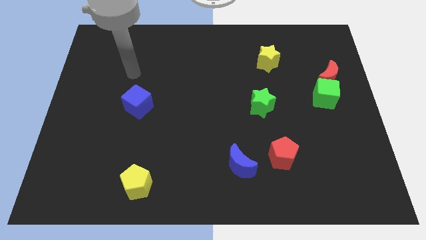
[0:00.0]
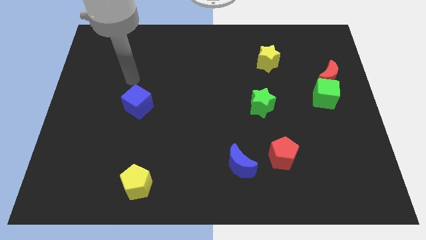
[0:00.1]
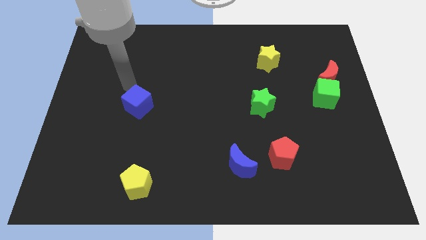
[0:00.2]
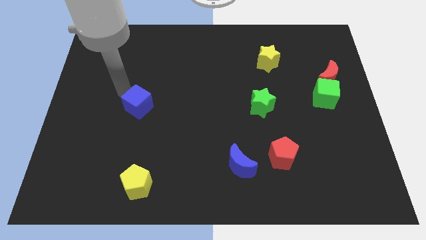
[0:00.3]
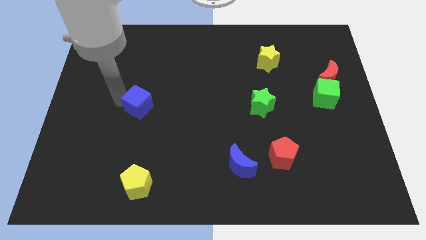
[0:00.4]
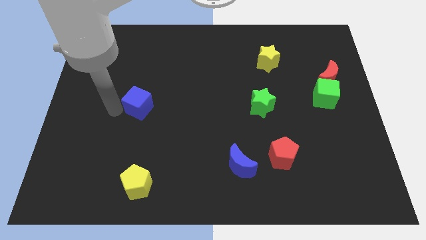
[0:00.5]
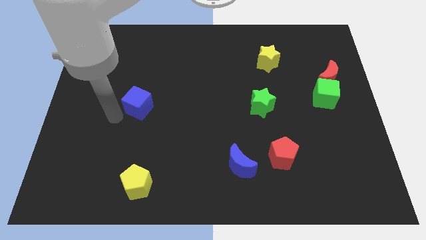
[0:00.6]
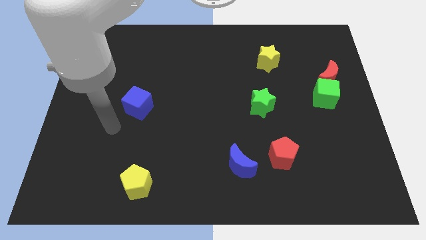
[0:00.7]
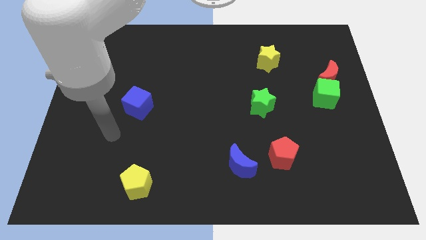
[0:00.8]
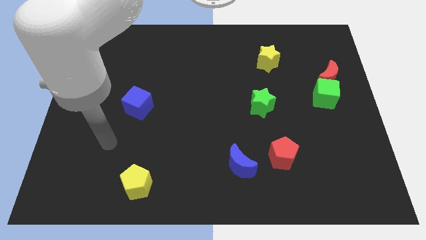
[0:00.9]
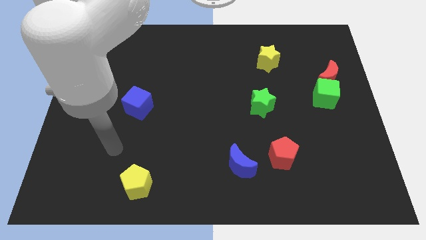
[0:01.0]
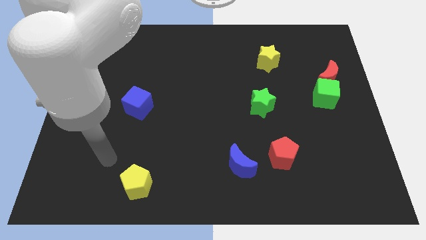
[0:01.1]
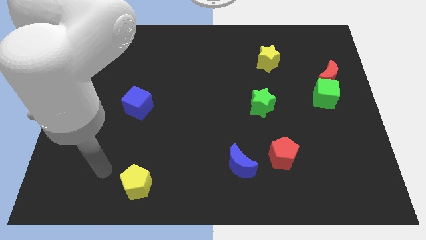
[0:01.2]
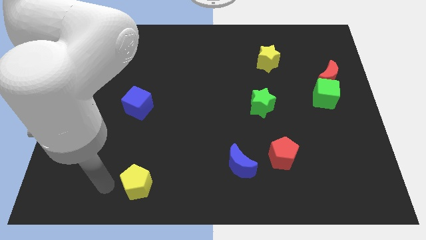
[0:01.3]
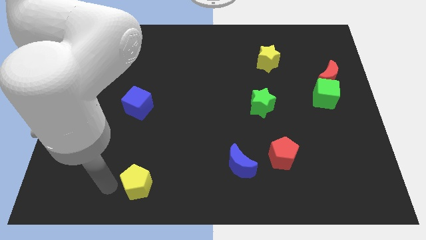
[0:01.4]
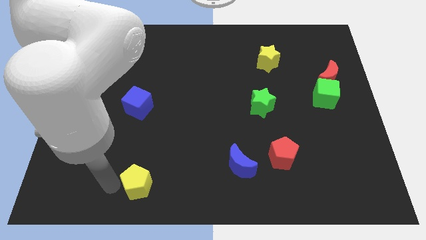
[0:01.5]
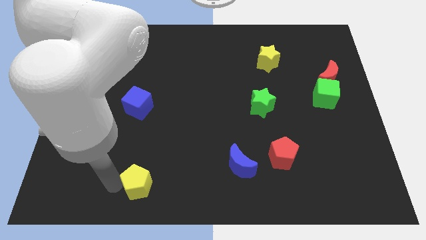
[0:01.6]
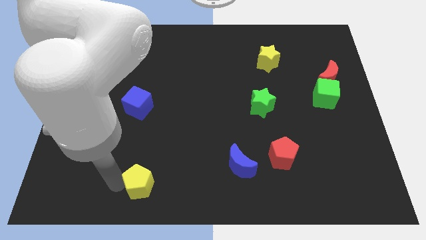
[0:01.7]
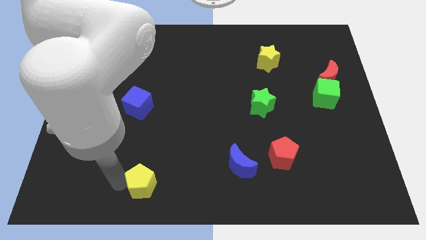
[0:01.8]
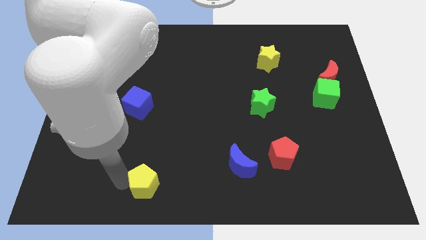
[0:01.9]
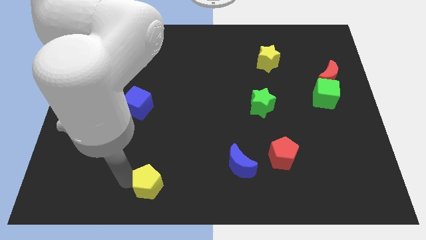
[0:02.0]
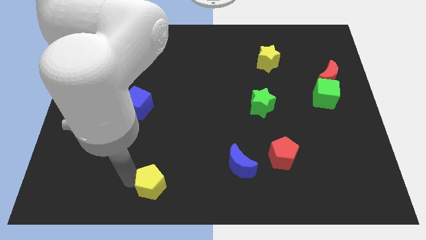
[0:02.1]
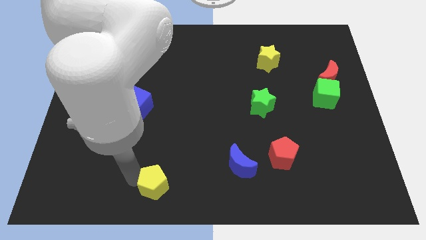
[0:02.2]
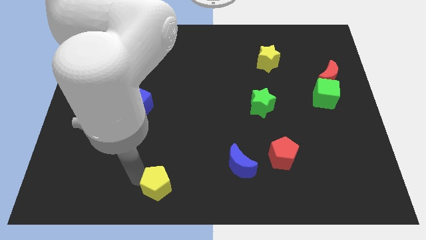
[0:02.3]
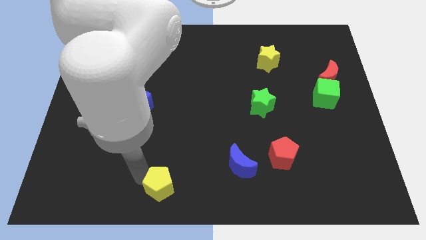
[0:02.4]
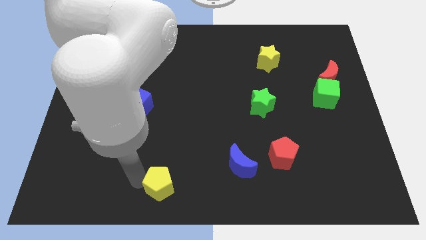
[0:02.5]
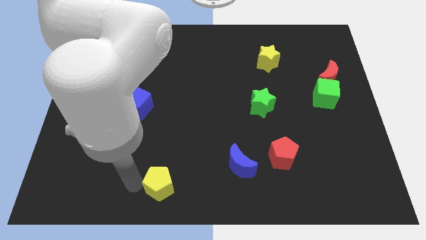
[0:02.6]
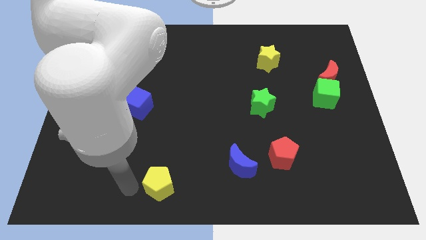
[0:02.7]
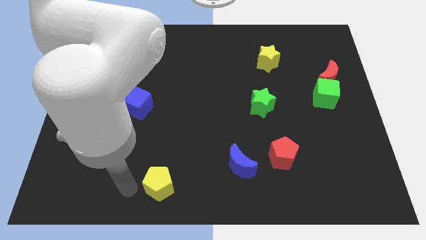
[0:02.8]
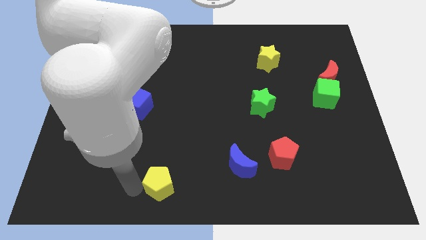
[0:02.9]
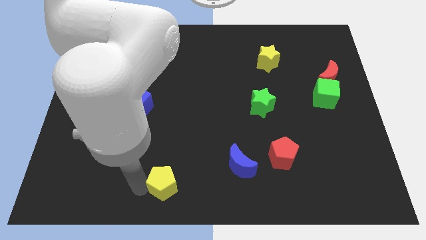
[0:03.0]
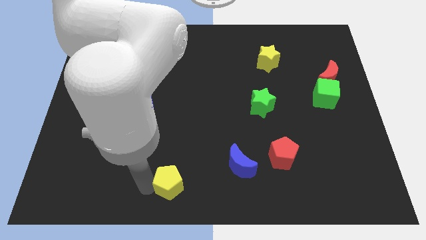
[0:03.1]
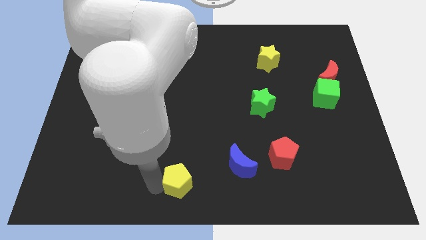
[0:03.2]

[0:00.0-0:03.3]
push the yellow pentagon right a little bit

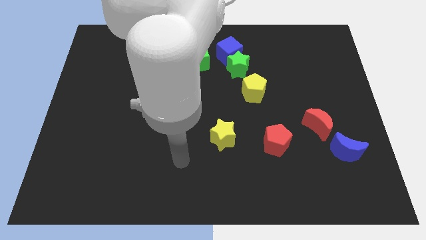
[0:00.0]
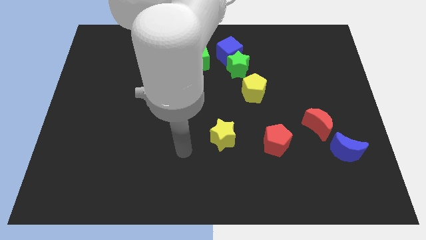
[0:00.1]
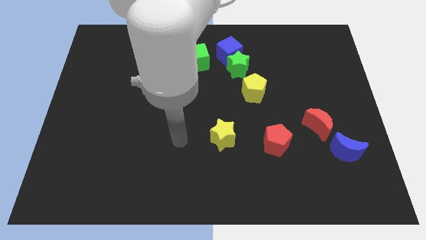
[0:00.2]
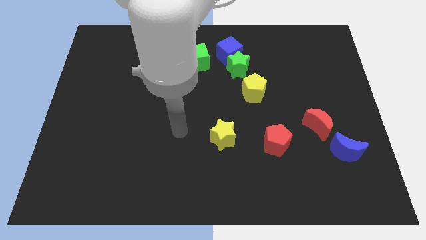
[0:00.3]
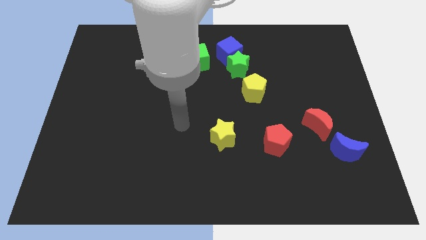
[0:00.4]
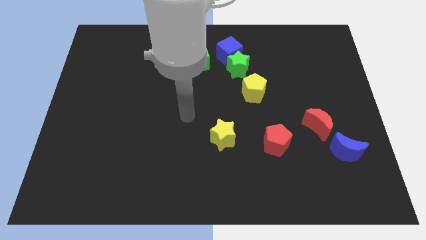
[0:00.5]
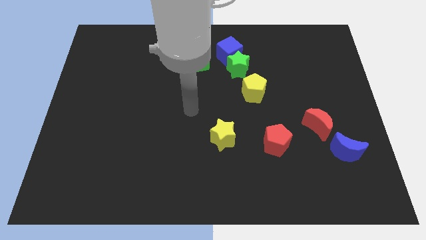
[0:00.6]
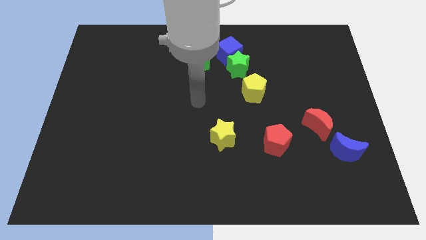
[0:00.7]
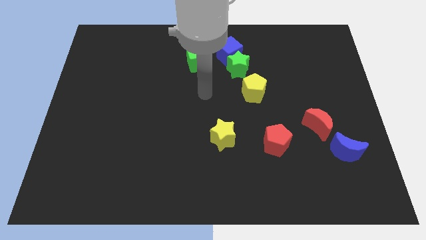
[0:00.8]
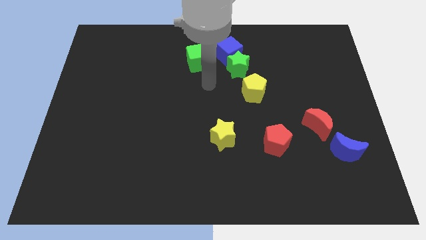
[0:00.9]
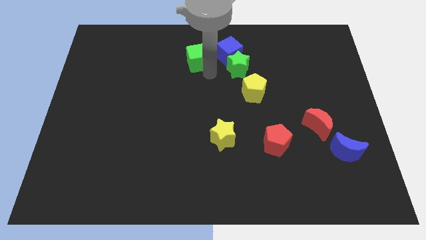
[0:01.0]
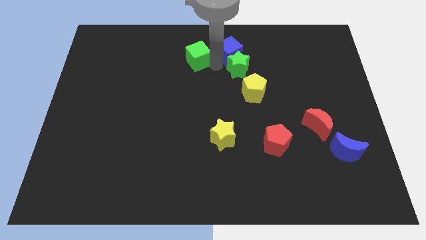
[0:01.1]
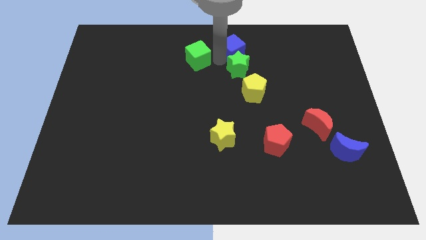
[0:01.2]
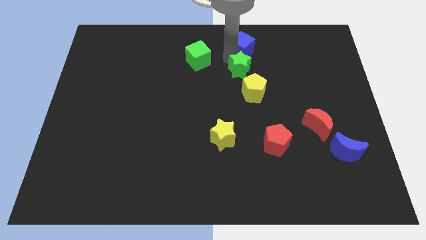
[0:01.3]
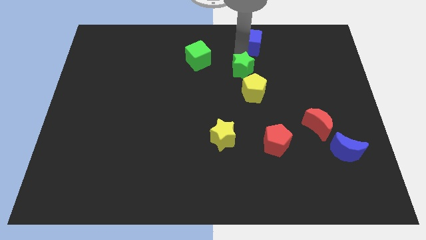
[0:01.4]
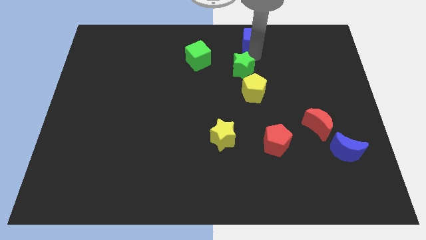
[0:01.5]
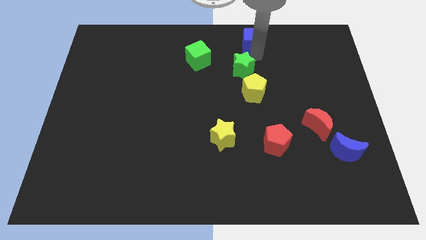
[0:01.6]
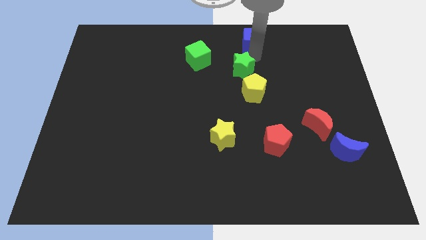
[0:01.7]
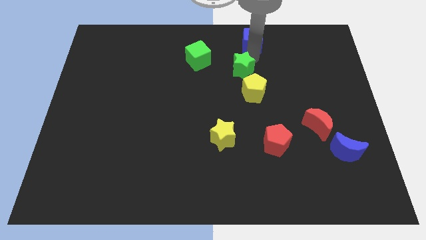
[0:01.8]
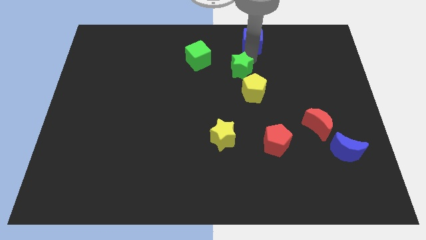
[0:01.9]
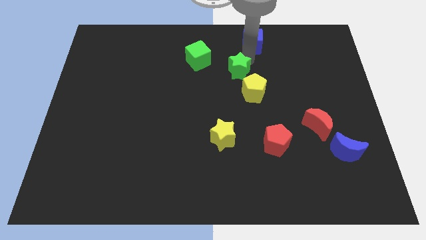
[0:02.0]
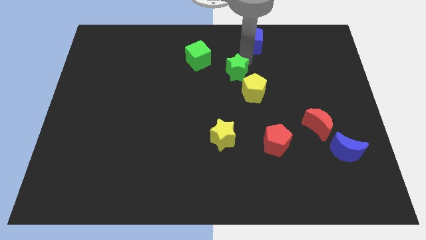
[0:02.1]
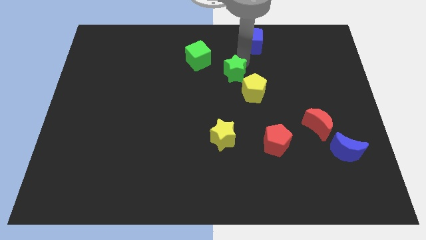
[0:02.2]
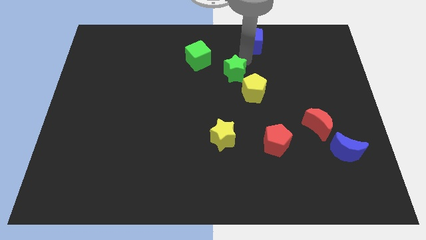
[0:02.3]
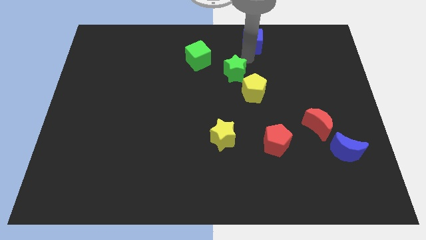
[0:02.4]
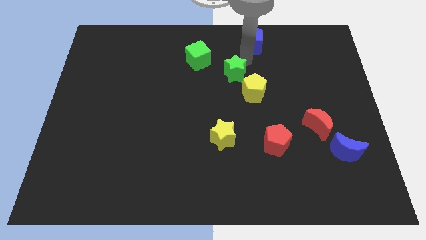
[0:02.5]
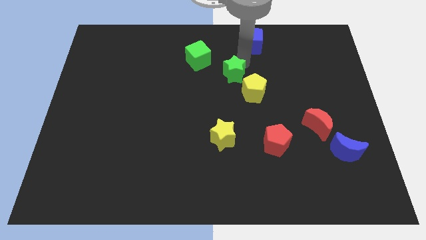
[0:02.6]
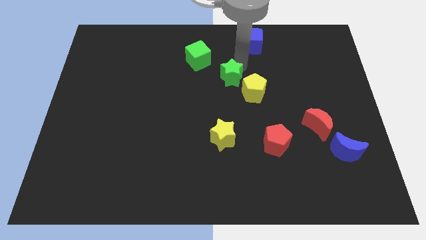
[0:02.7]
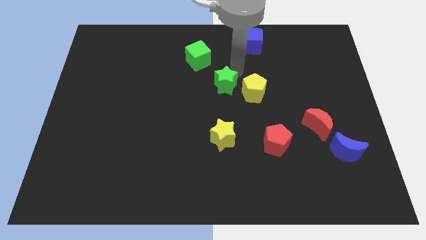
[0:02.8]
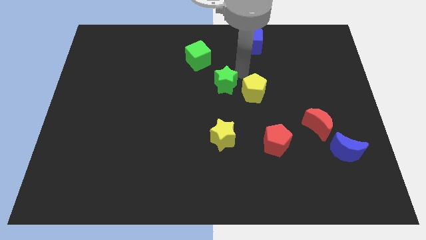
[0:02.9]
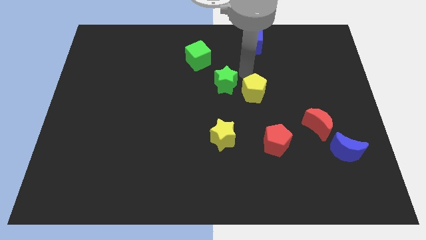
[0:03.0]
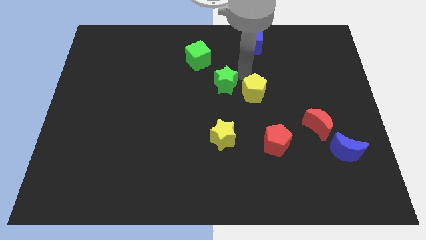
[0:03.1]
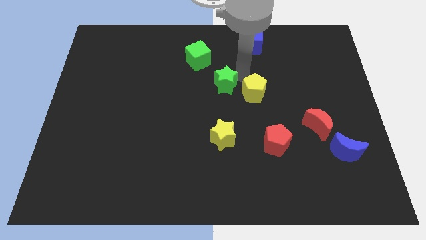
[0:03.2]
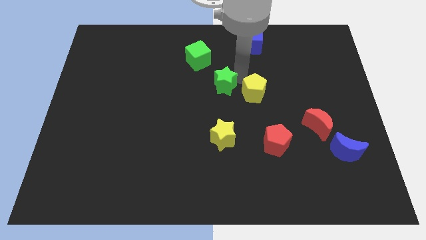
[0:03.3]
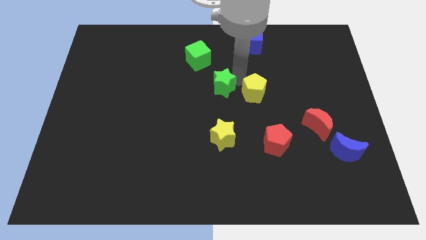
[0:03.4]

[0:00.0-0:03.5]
slightly push the green star downwards and left diagonally

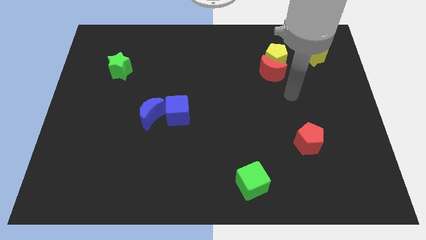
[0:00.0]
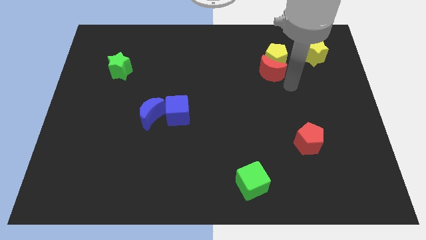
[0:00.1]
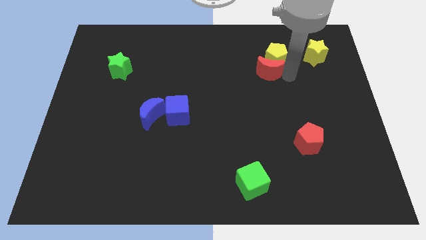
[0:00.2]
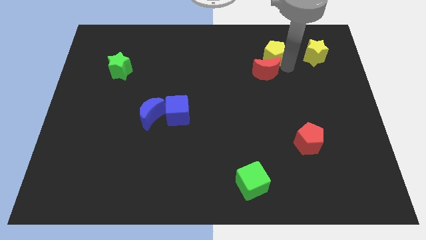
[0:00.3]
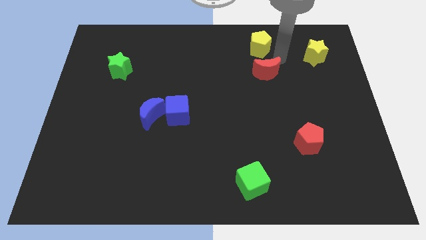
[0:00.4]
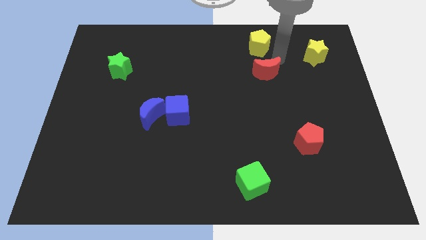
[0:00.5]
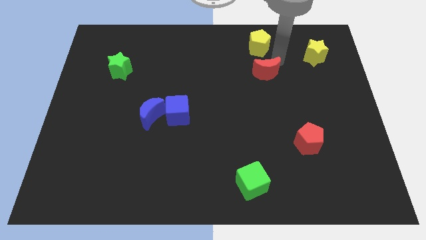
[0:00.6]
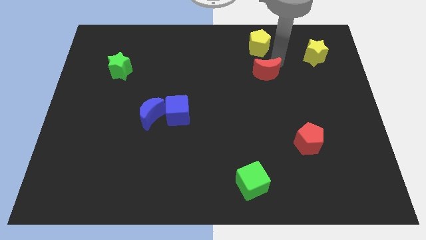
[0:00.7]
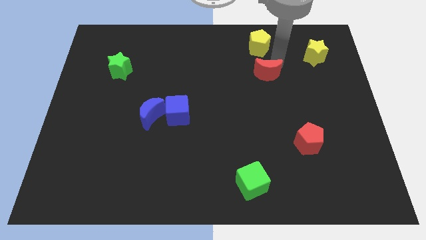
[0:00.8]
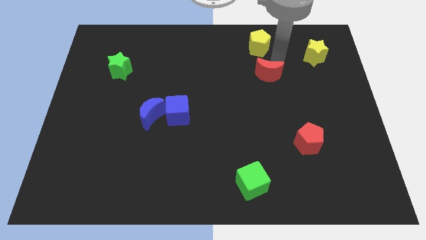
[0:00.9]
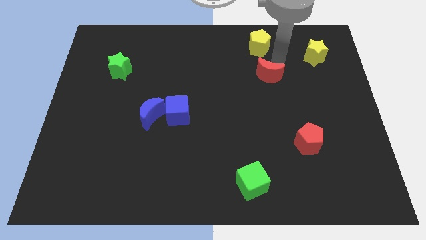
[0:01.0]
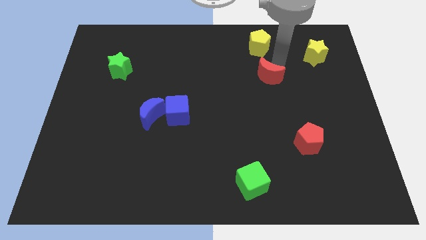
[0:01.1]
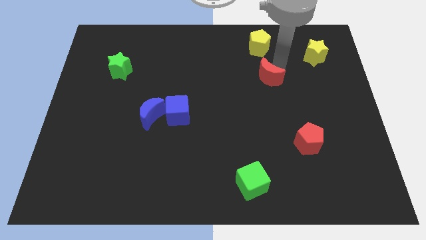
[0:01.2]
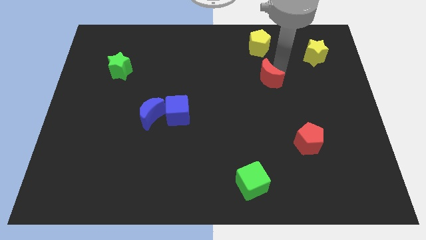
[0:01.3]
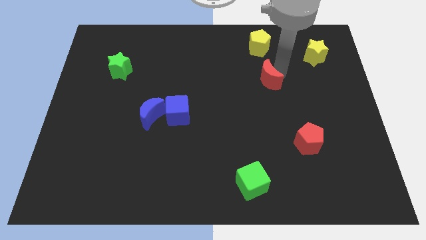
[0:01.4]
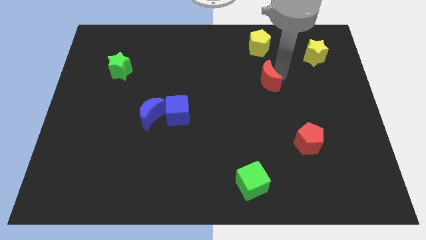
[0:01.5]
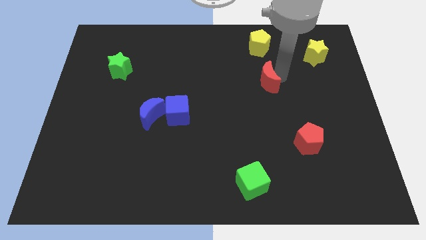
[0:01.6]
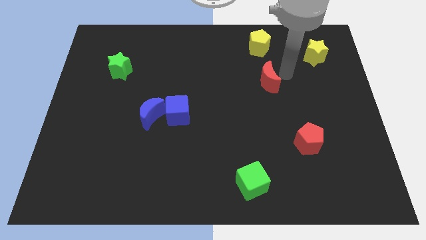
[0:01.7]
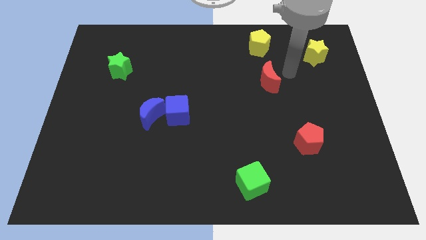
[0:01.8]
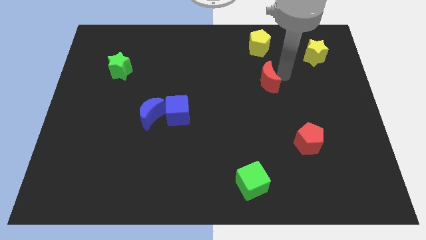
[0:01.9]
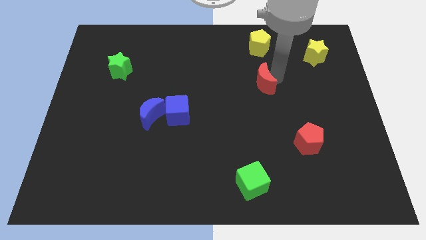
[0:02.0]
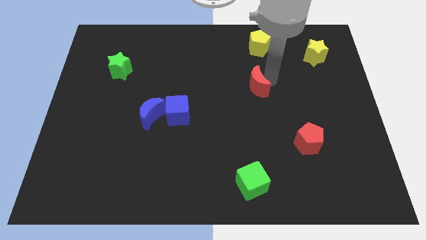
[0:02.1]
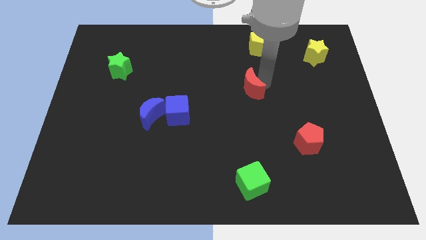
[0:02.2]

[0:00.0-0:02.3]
slide the red moon a little diagonally downwards and to the left
